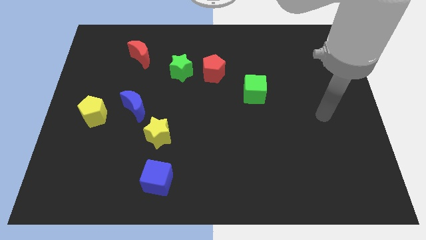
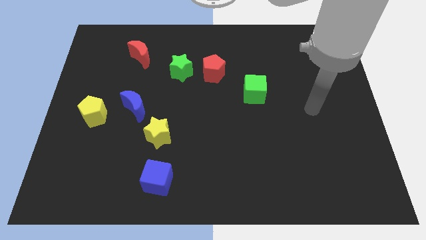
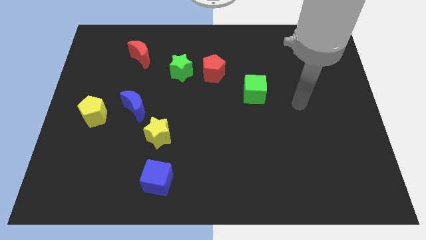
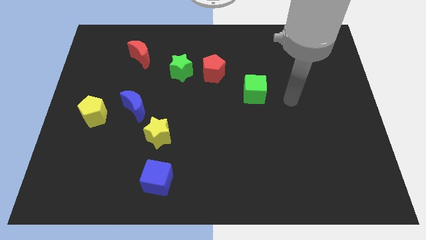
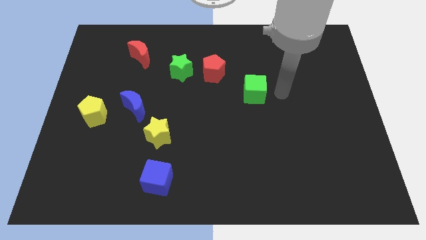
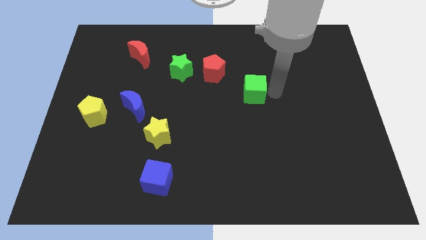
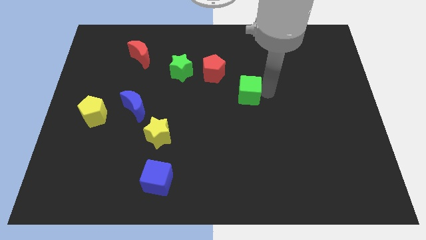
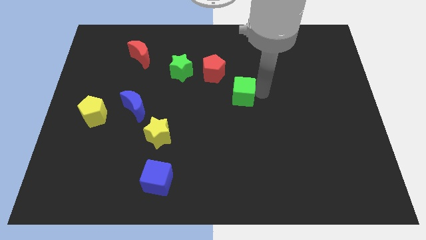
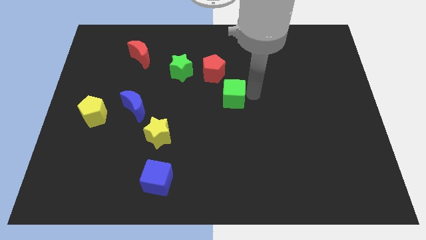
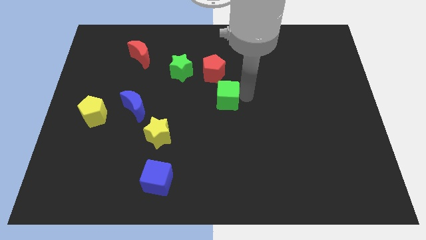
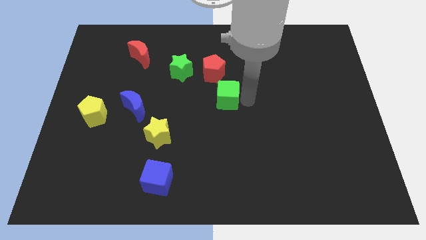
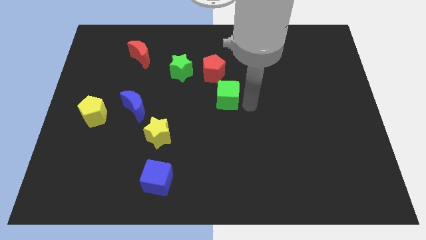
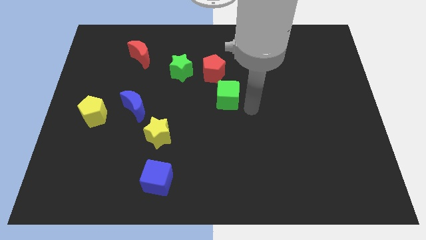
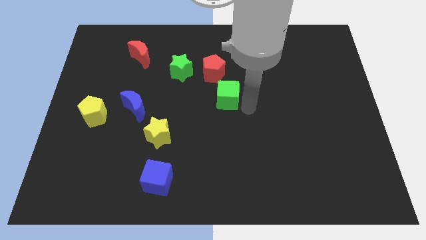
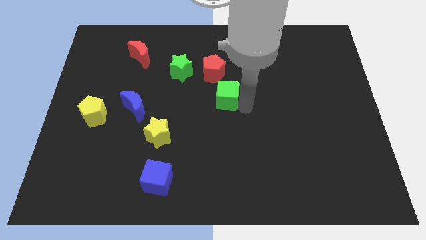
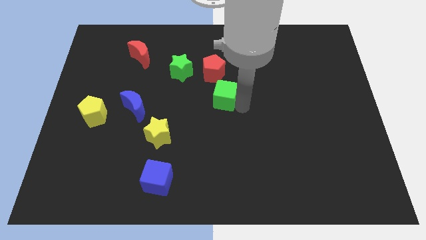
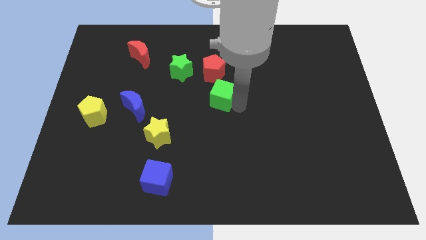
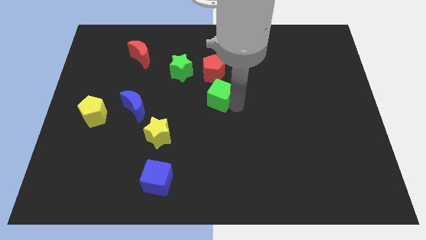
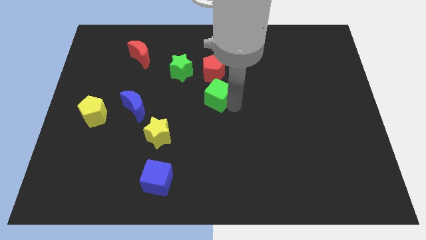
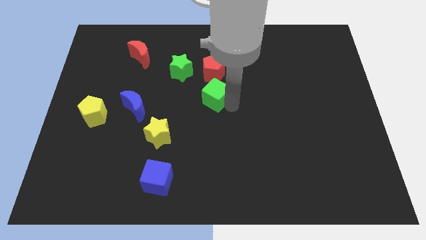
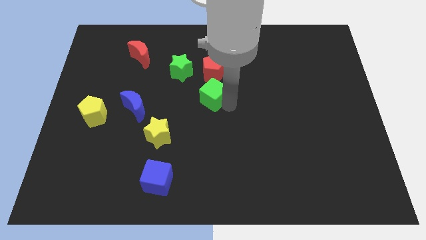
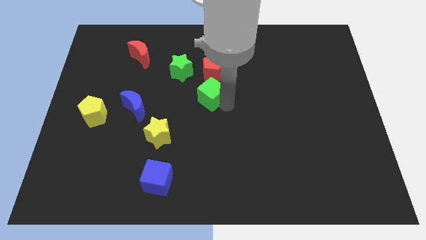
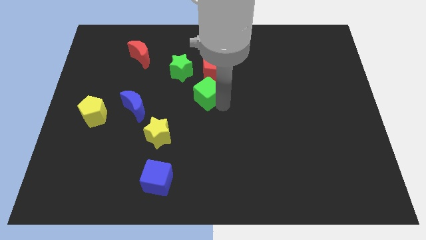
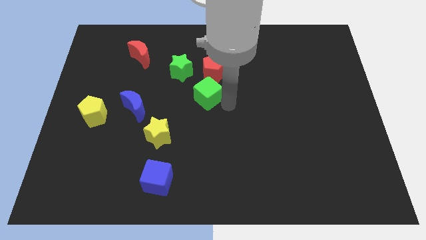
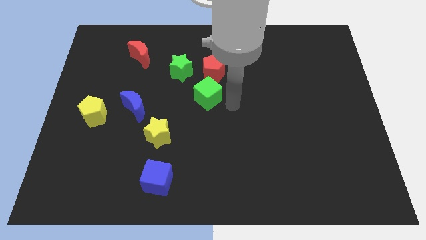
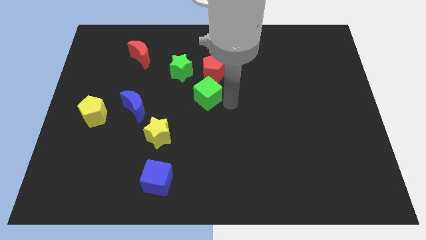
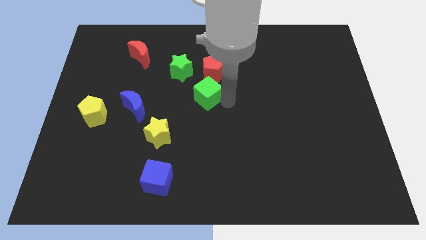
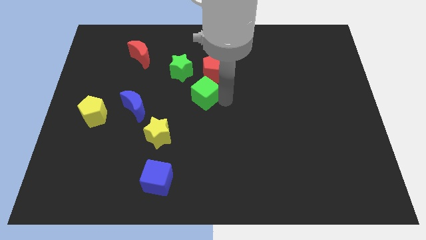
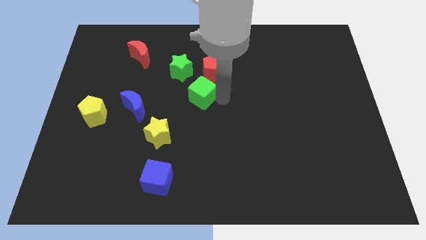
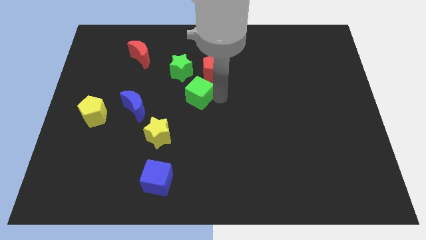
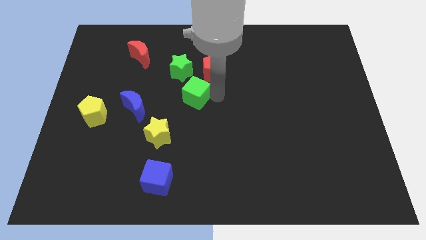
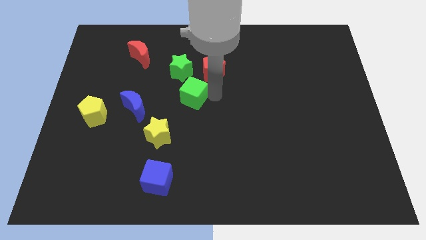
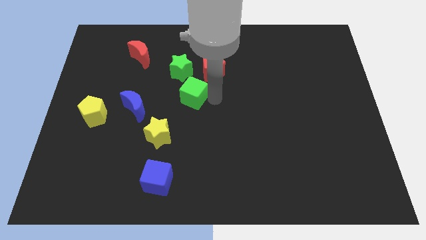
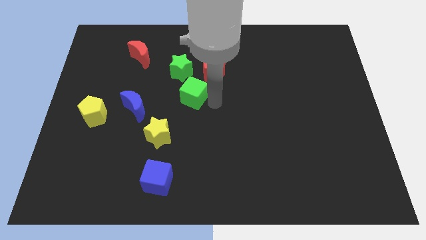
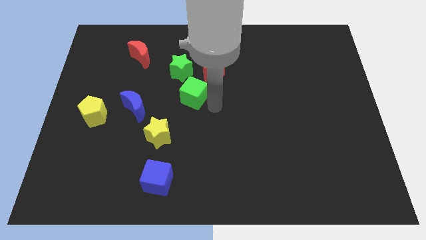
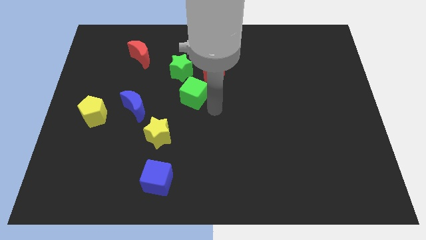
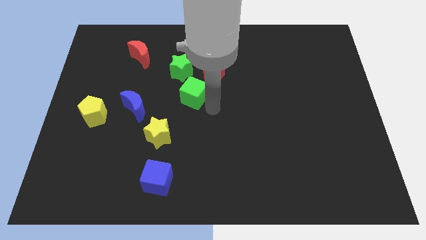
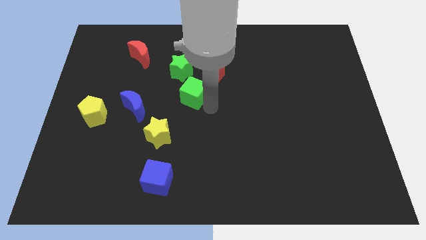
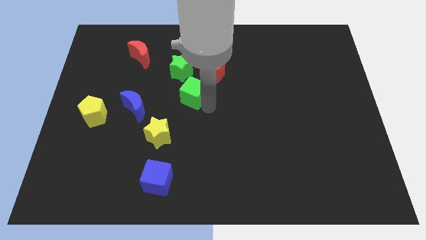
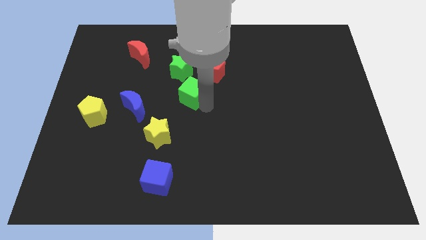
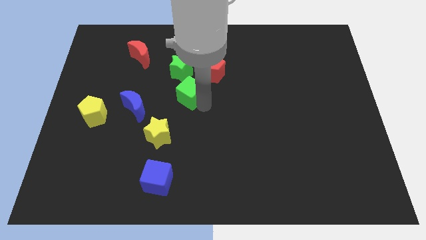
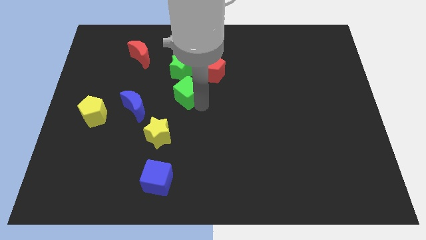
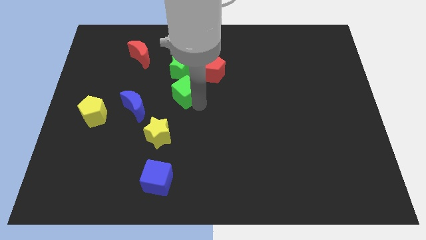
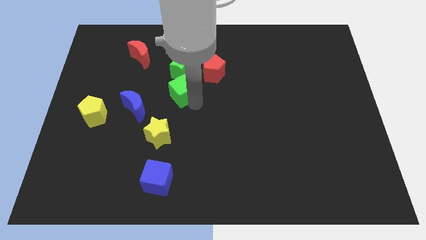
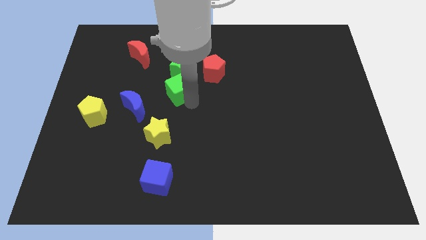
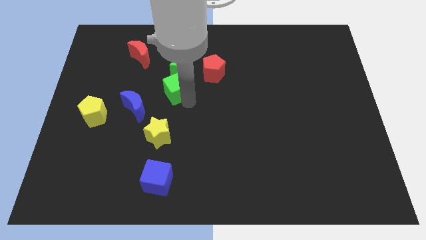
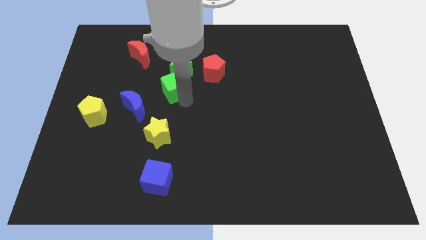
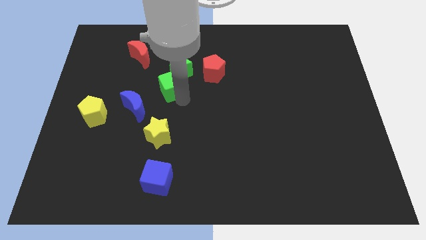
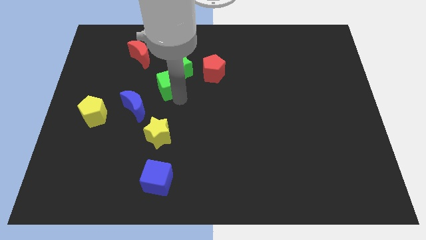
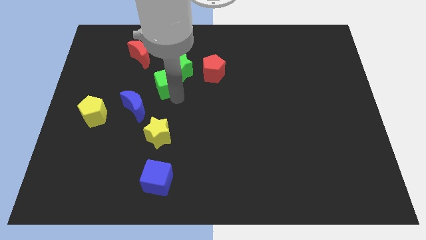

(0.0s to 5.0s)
push the green cube to the left of the red pentagon

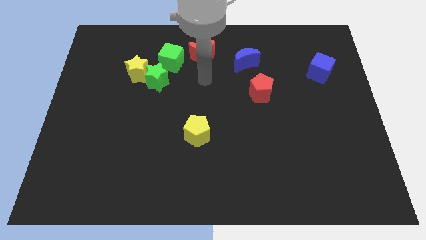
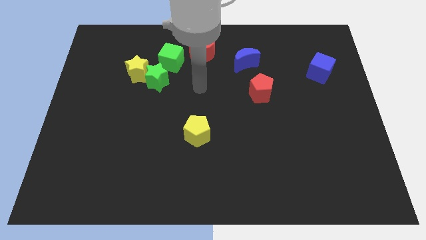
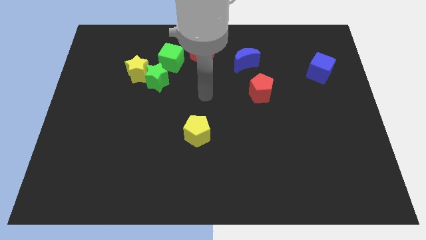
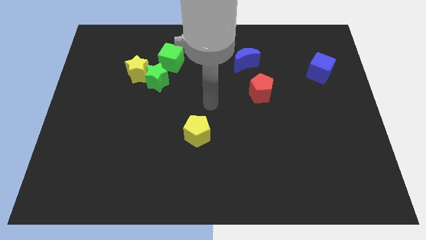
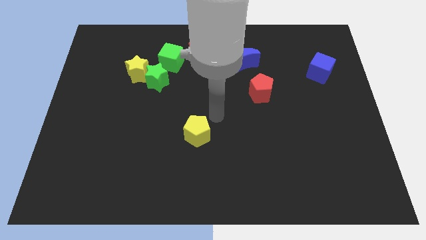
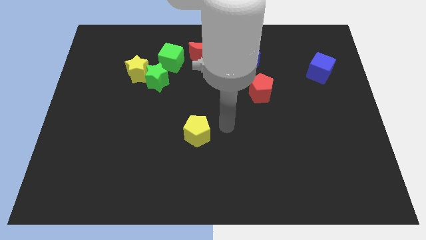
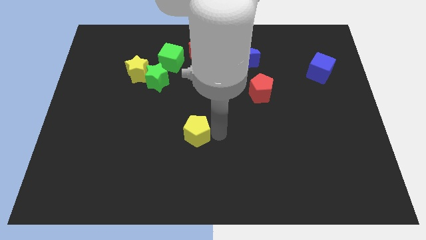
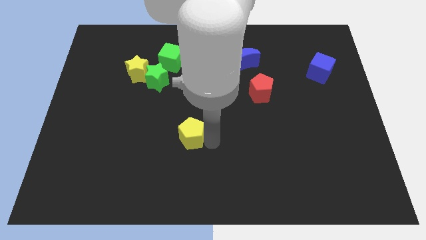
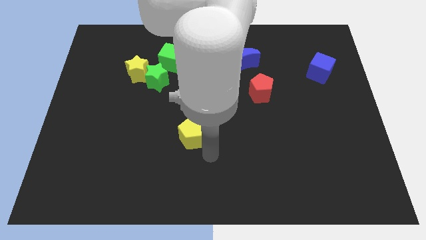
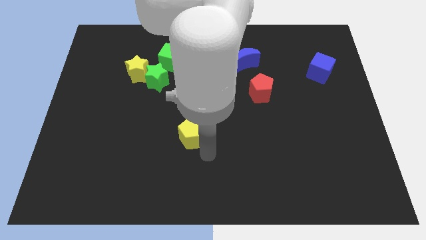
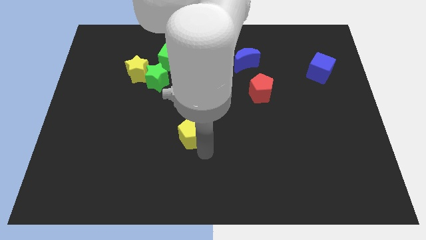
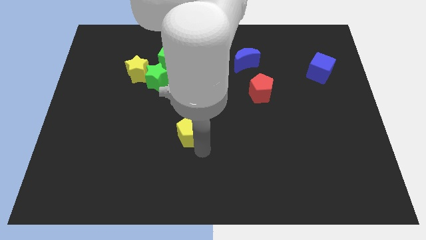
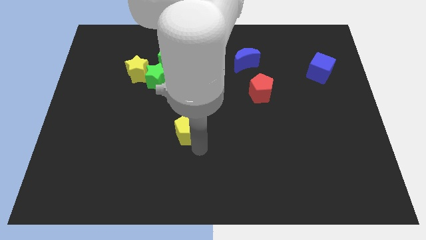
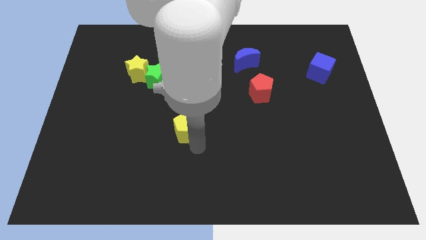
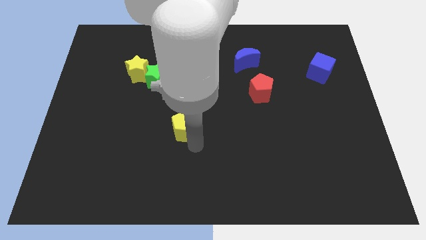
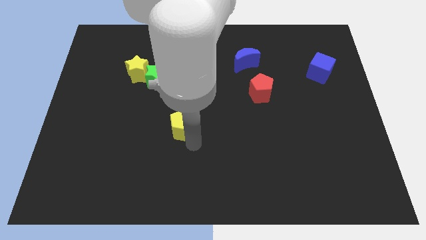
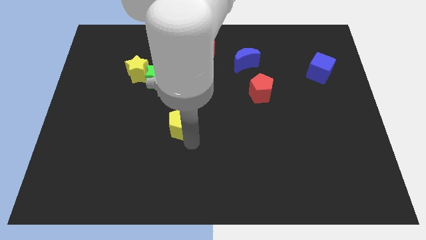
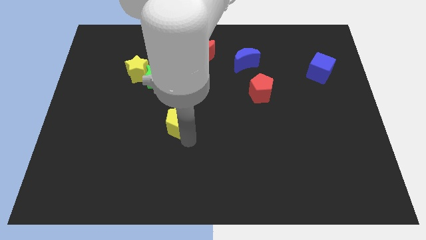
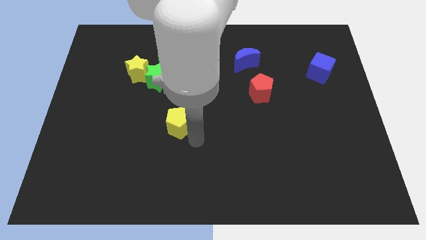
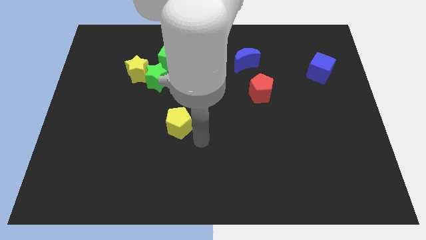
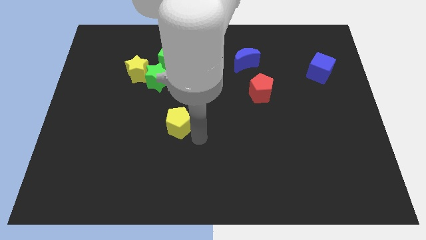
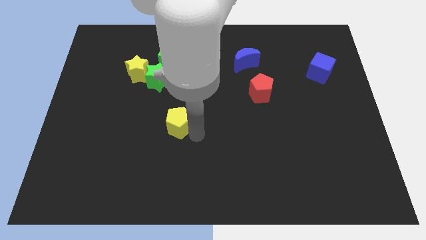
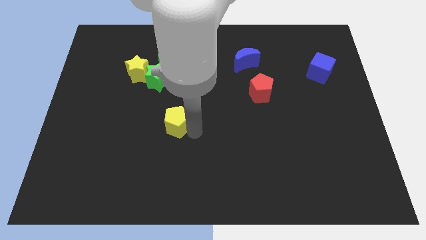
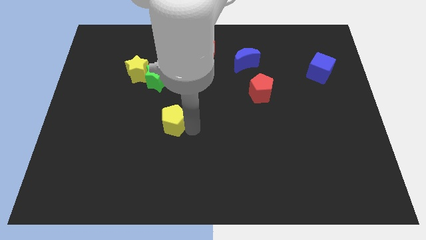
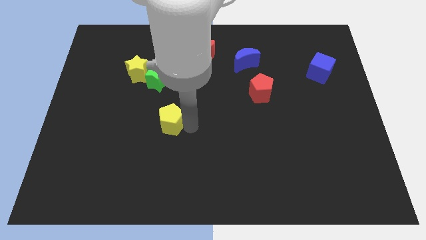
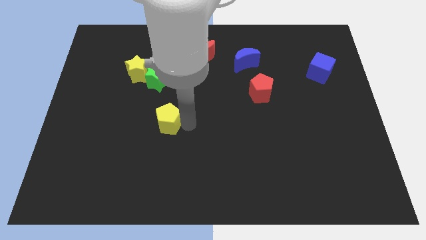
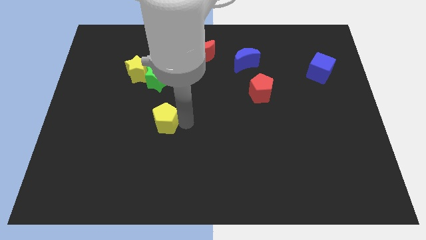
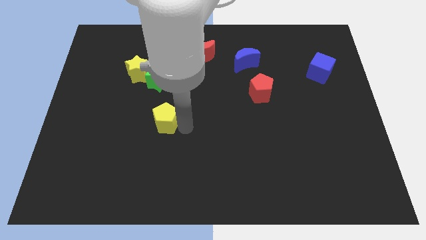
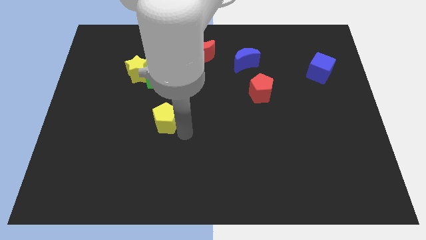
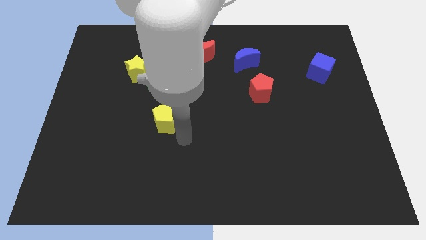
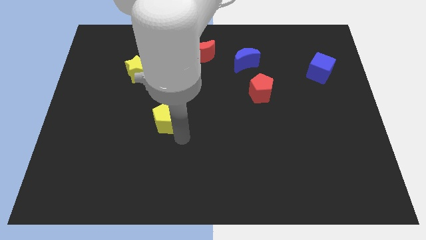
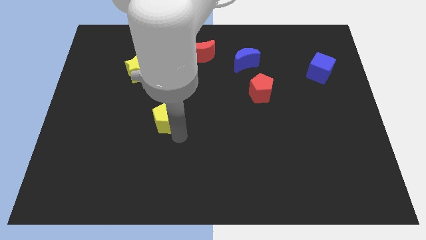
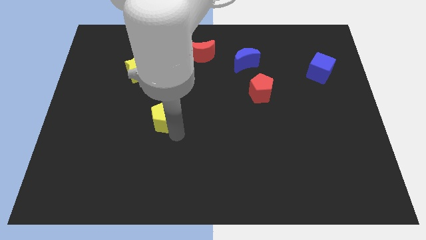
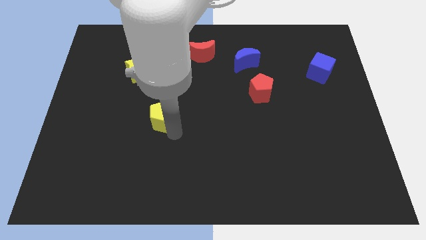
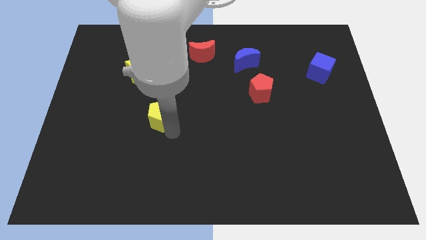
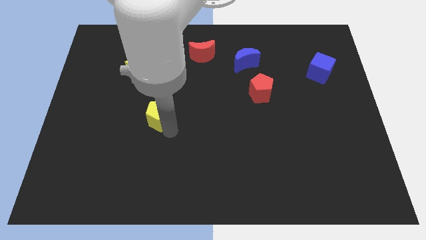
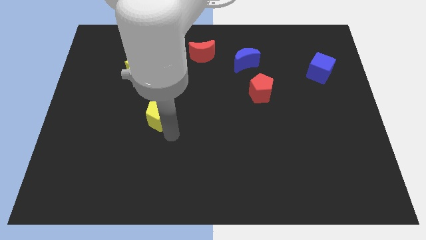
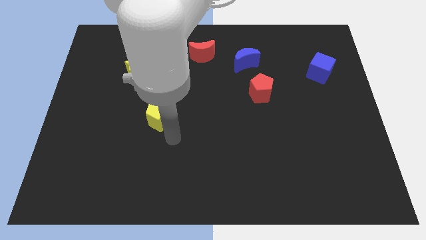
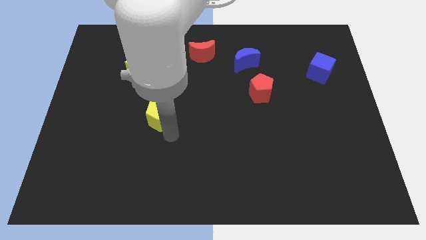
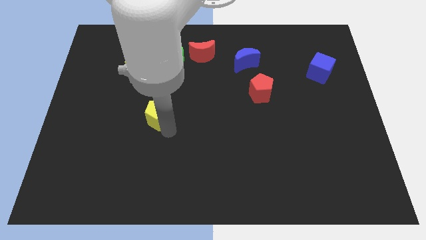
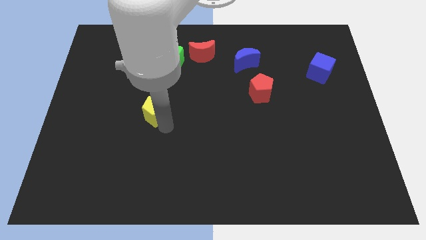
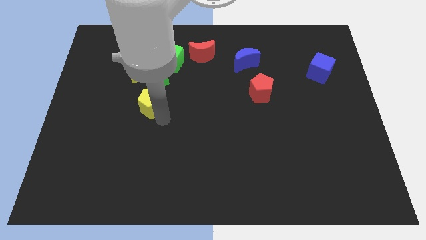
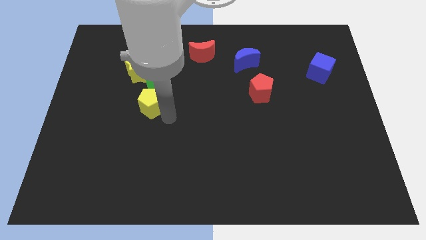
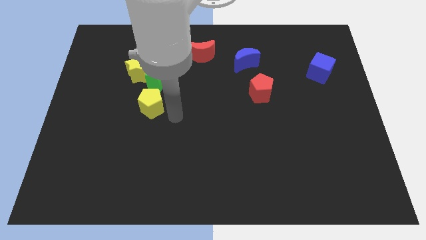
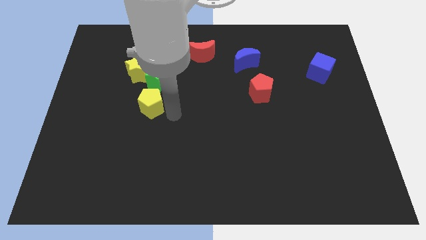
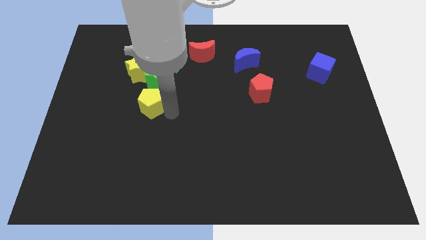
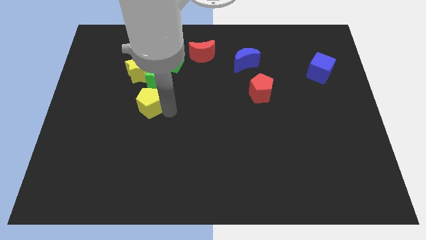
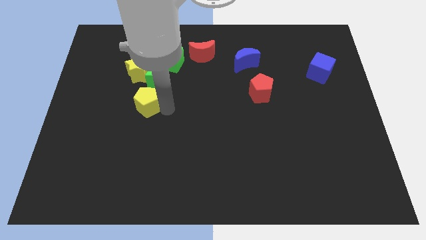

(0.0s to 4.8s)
put the yellow pentagon to the bottom left side of the green star
